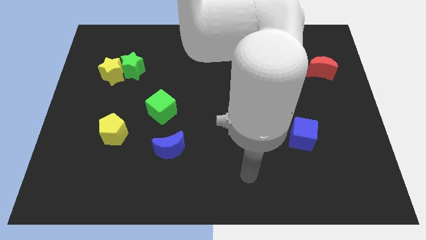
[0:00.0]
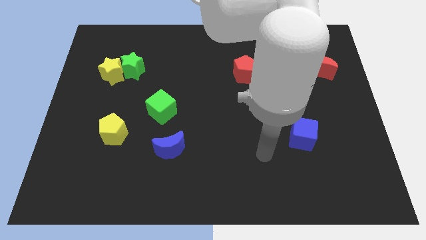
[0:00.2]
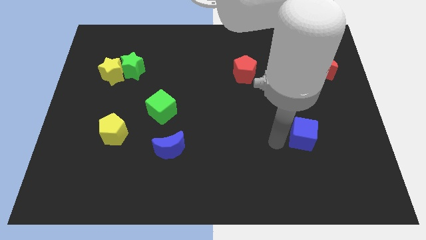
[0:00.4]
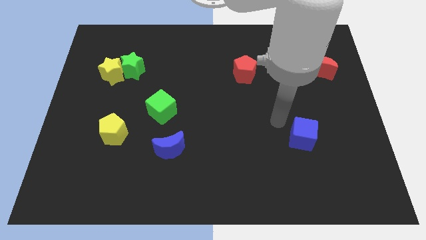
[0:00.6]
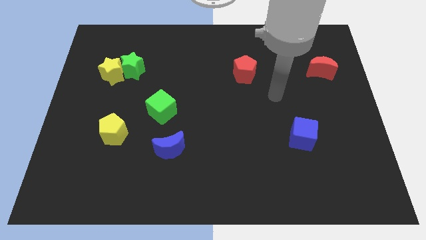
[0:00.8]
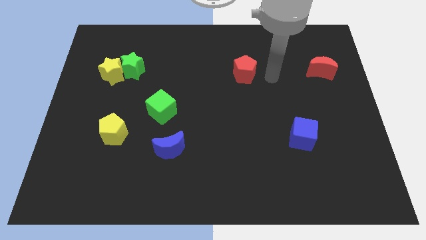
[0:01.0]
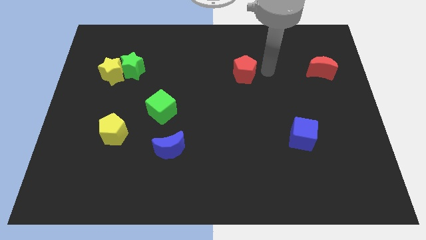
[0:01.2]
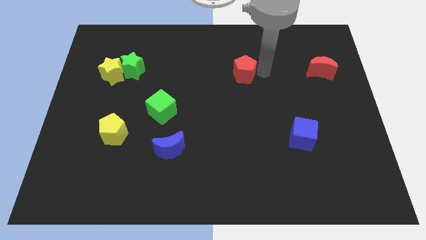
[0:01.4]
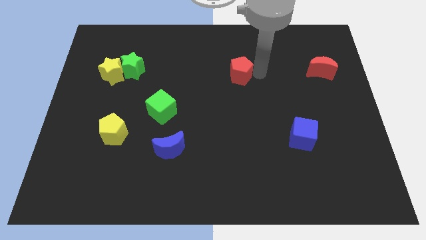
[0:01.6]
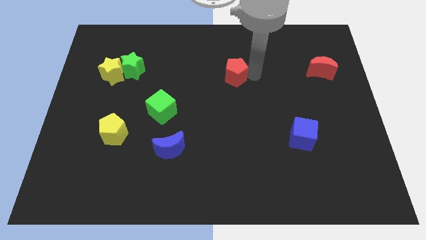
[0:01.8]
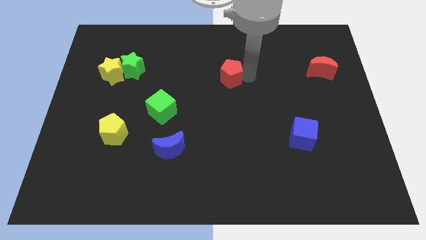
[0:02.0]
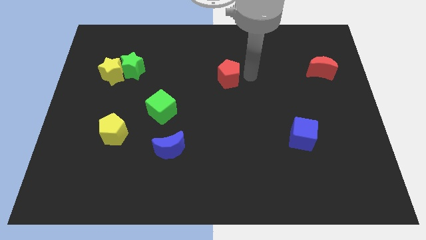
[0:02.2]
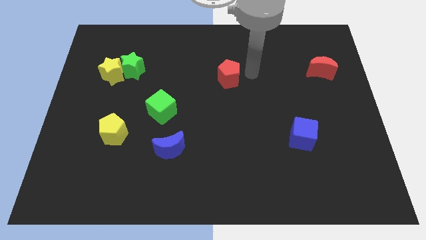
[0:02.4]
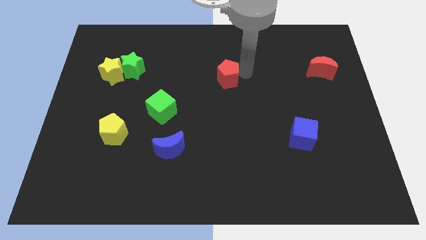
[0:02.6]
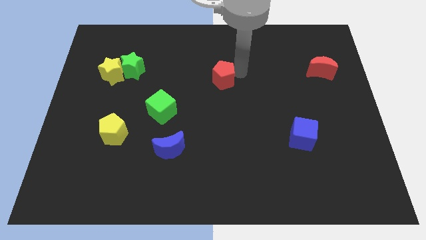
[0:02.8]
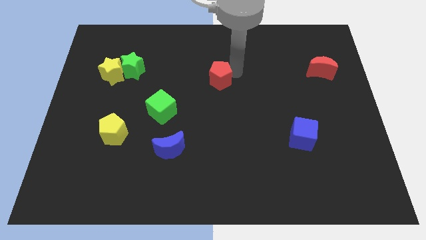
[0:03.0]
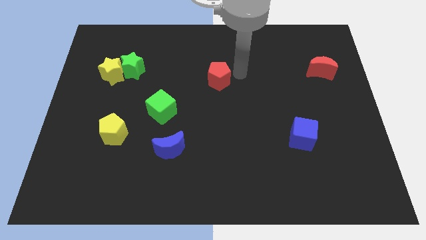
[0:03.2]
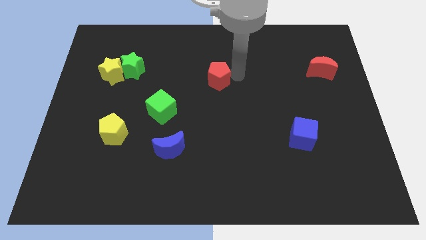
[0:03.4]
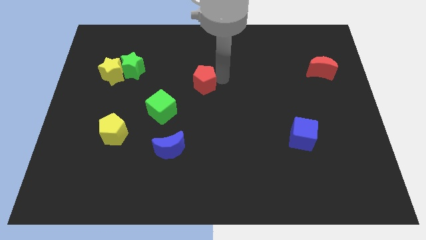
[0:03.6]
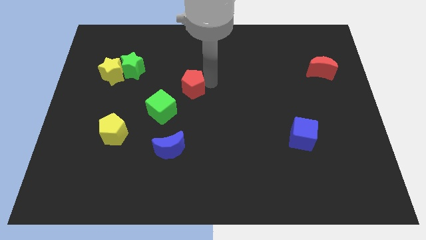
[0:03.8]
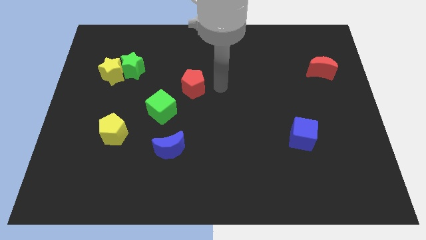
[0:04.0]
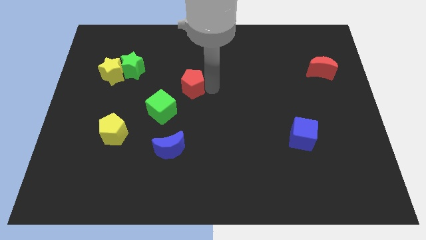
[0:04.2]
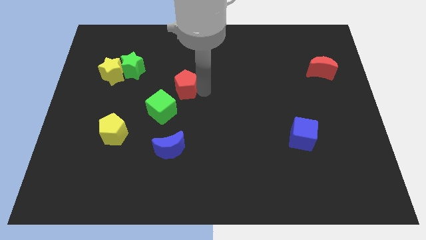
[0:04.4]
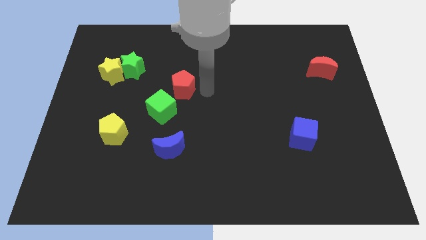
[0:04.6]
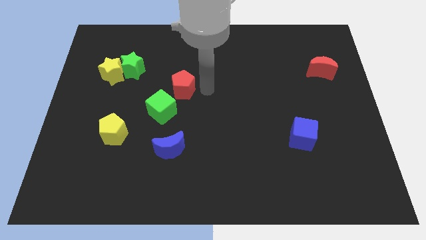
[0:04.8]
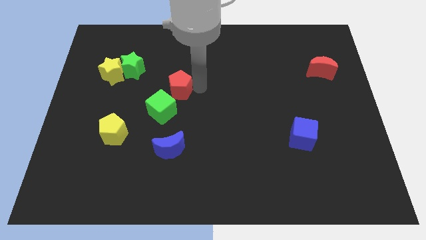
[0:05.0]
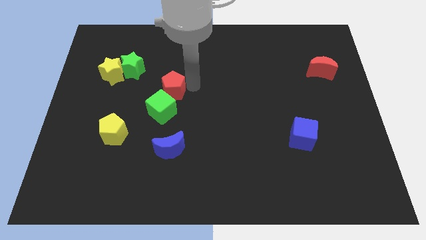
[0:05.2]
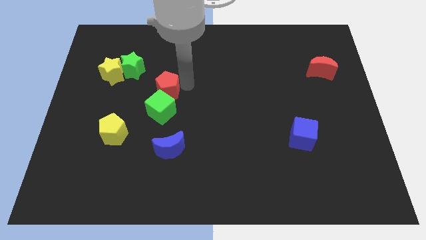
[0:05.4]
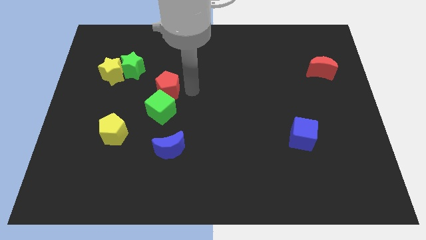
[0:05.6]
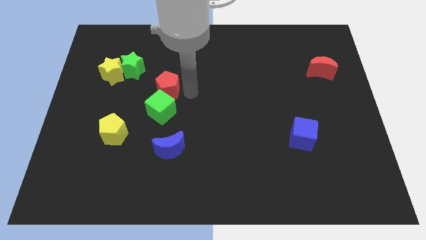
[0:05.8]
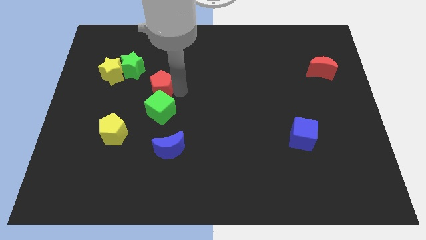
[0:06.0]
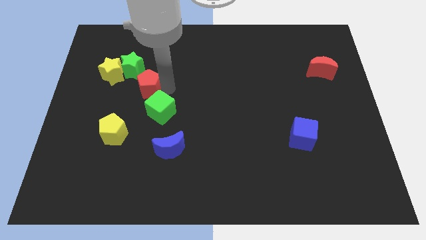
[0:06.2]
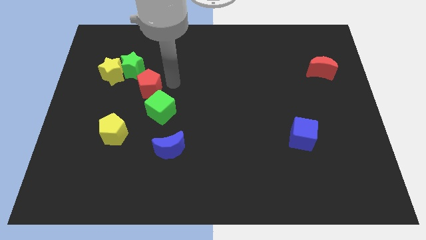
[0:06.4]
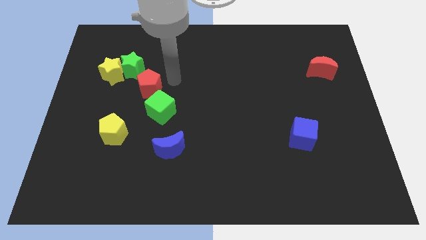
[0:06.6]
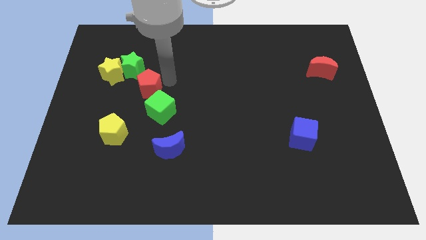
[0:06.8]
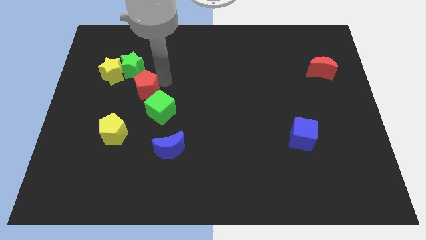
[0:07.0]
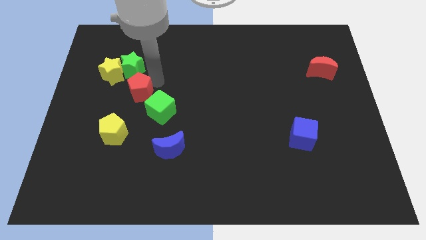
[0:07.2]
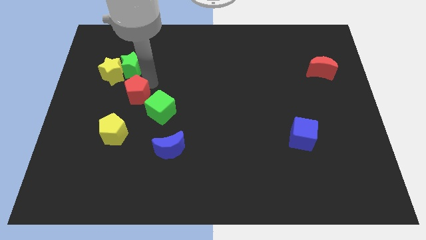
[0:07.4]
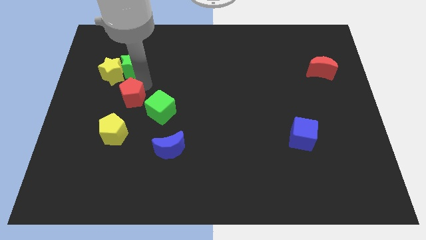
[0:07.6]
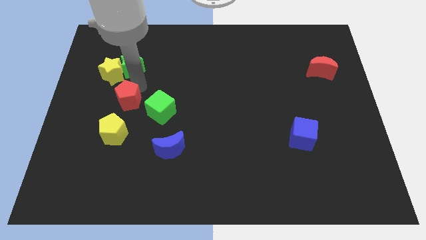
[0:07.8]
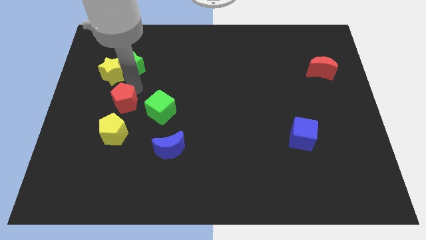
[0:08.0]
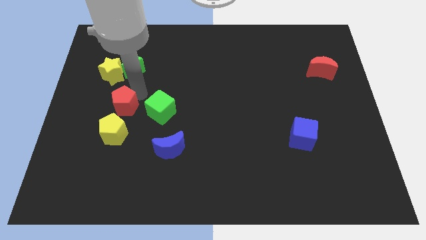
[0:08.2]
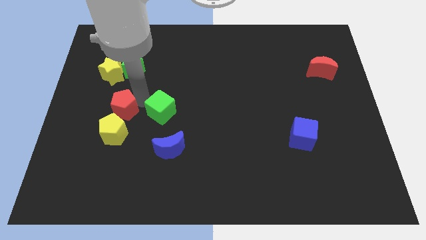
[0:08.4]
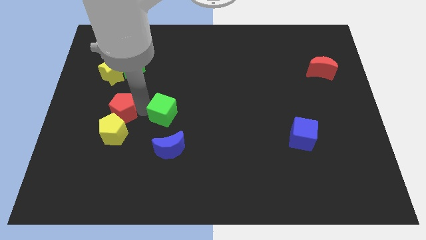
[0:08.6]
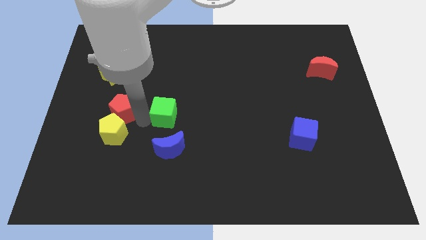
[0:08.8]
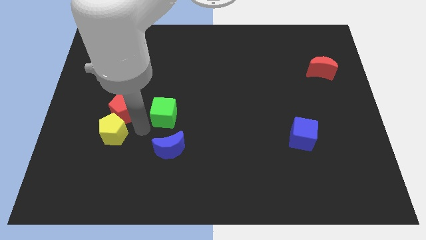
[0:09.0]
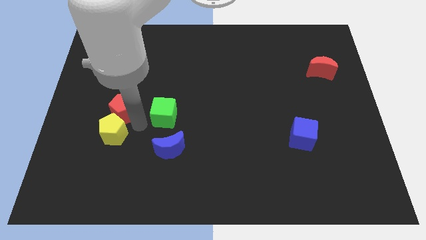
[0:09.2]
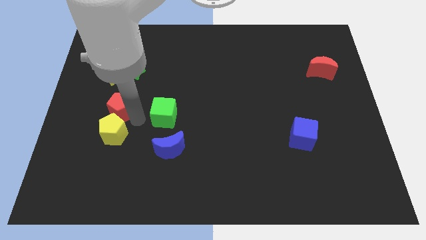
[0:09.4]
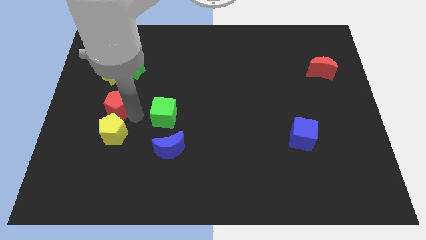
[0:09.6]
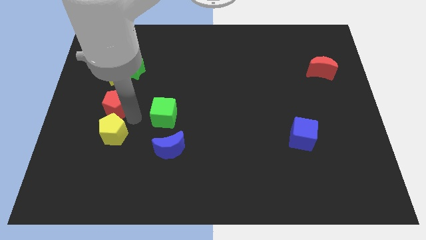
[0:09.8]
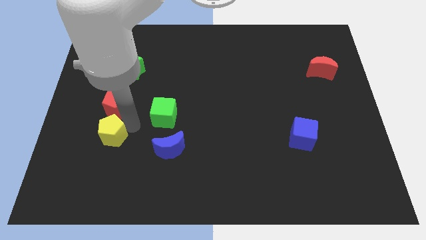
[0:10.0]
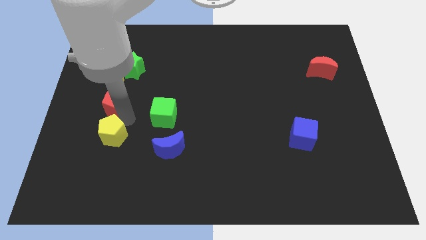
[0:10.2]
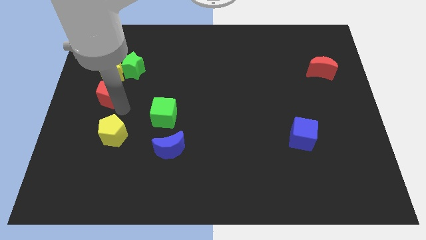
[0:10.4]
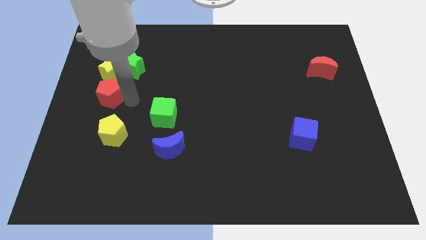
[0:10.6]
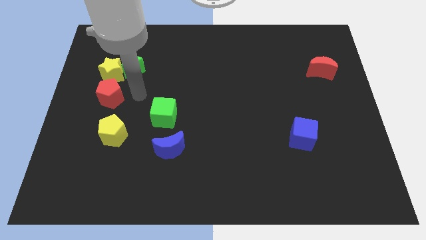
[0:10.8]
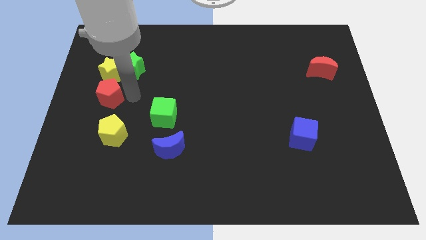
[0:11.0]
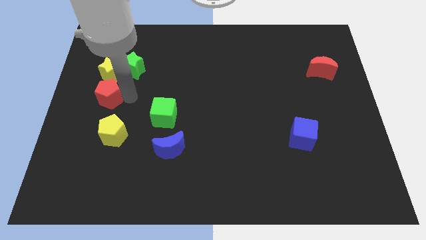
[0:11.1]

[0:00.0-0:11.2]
slide the red pentagon to the left side

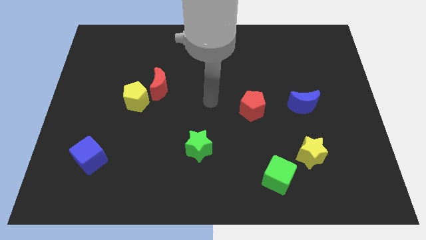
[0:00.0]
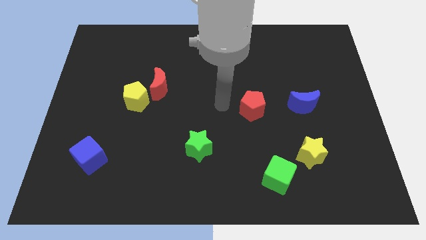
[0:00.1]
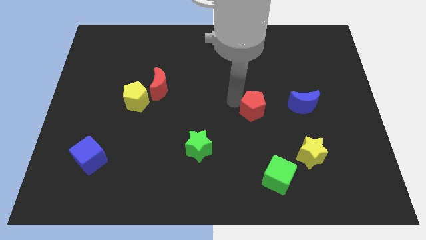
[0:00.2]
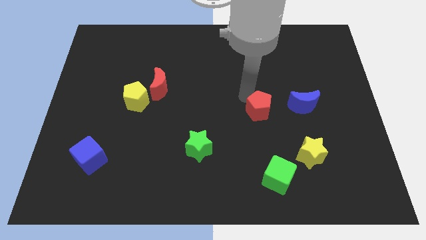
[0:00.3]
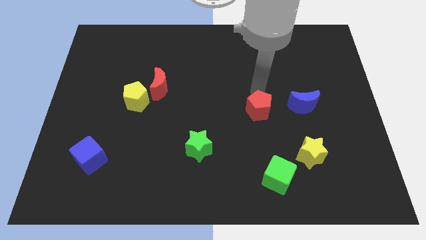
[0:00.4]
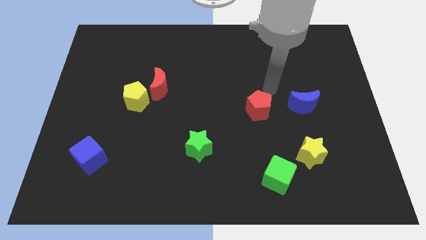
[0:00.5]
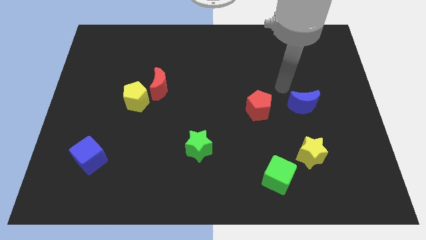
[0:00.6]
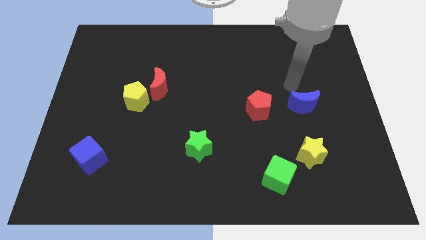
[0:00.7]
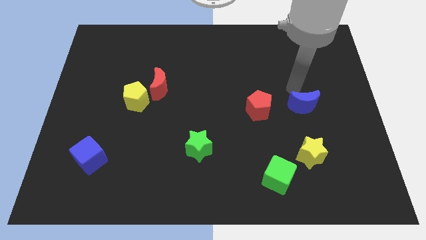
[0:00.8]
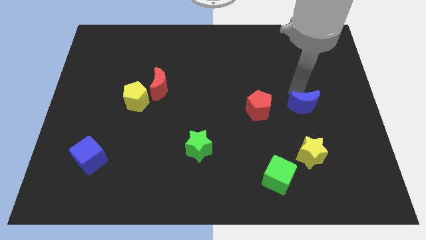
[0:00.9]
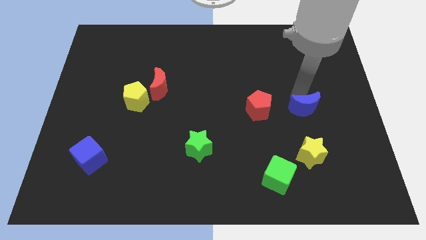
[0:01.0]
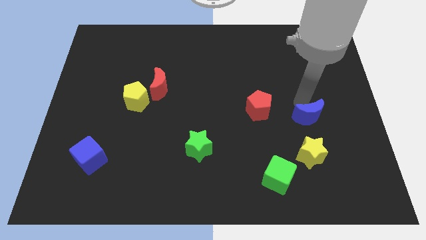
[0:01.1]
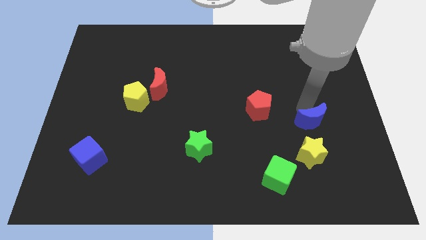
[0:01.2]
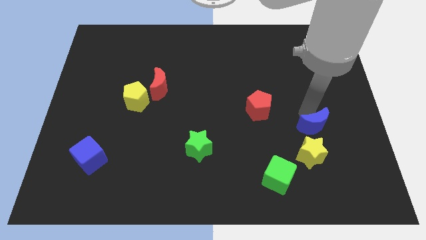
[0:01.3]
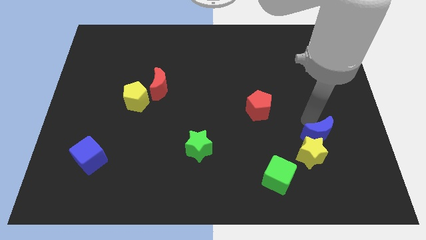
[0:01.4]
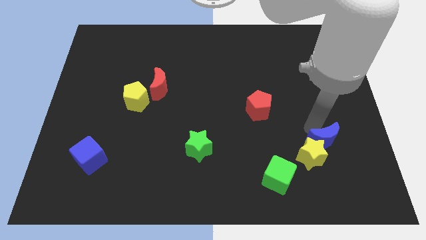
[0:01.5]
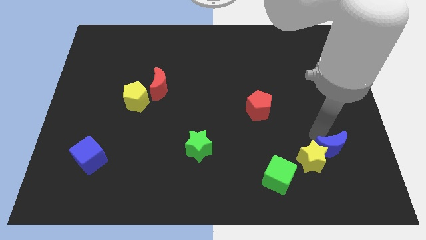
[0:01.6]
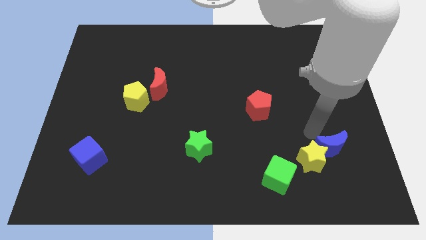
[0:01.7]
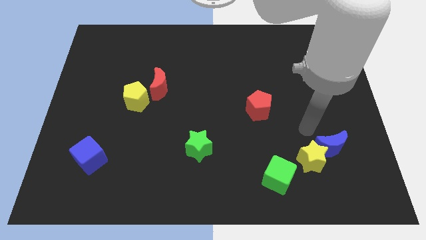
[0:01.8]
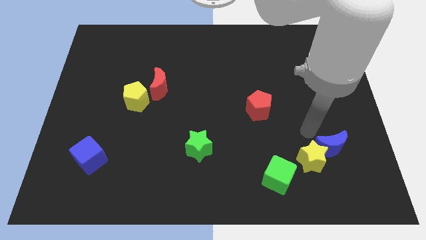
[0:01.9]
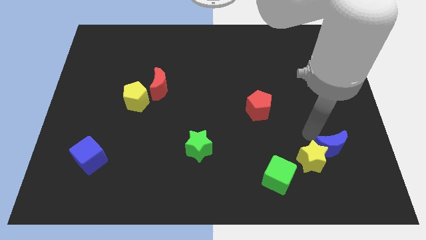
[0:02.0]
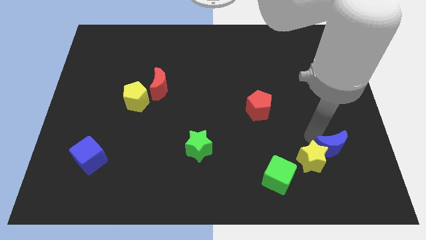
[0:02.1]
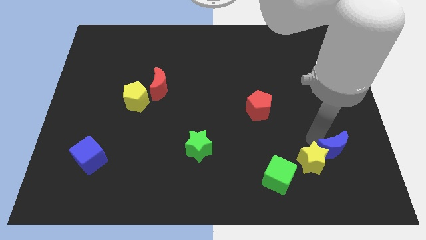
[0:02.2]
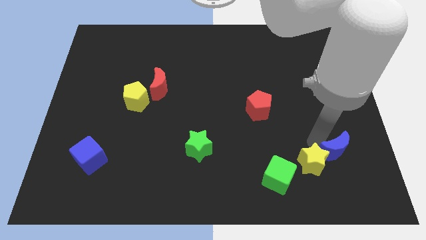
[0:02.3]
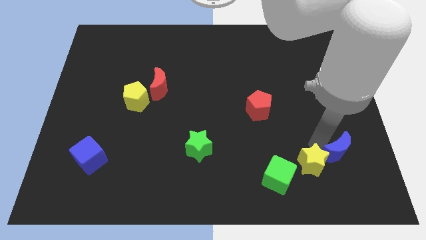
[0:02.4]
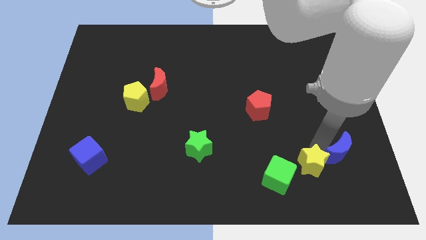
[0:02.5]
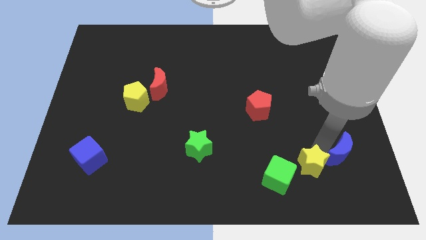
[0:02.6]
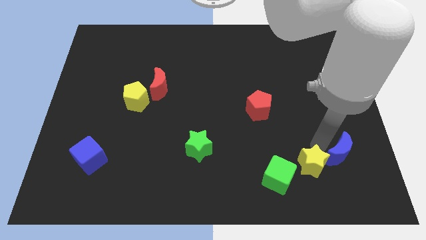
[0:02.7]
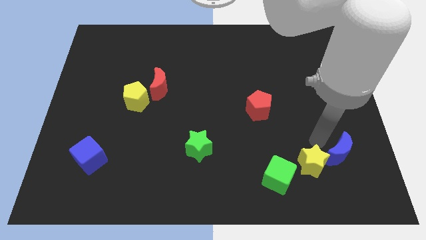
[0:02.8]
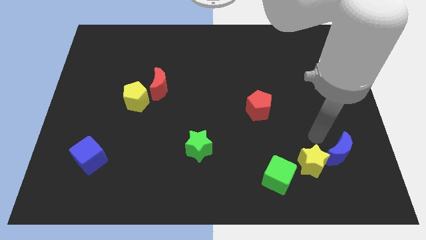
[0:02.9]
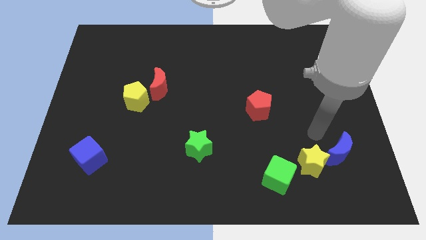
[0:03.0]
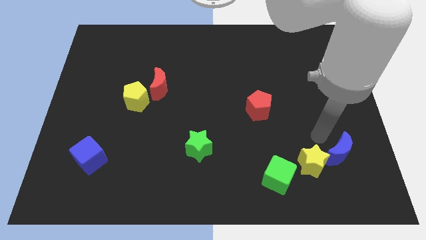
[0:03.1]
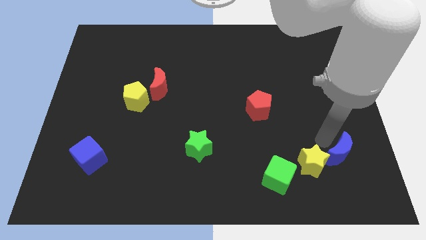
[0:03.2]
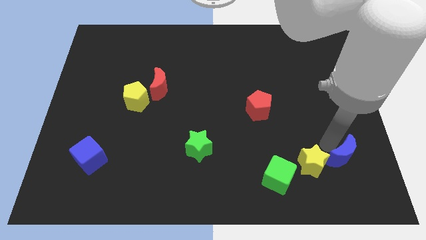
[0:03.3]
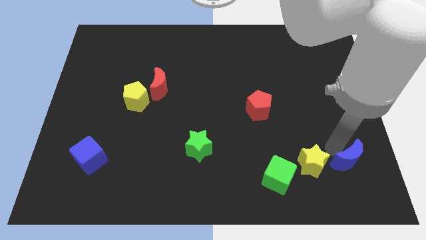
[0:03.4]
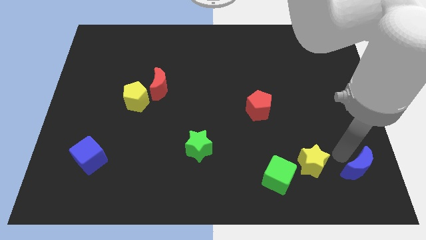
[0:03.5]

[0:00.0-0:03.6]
put the blue moon to the lower right corner
